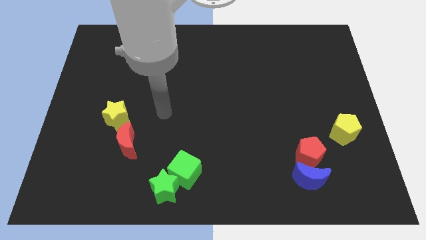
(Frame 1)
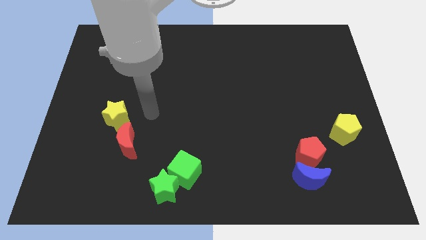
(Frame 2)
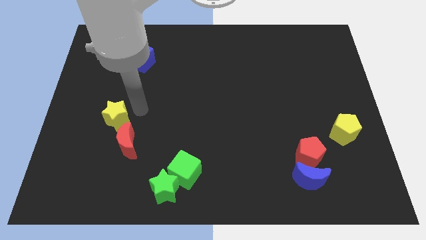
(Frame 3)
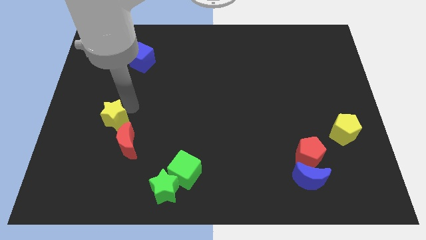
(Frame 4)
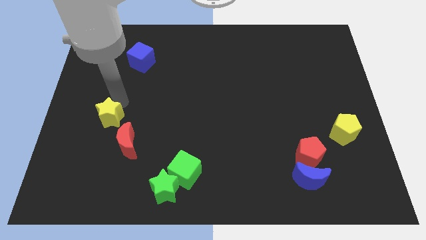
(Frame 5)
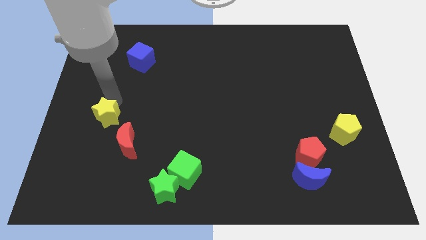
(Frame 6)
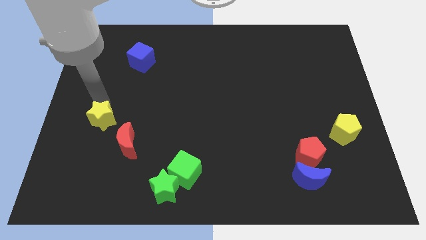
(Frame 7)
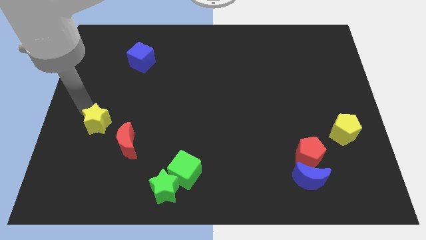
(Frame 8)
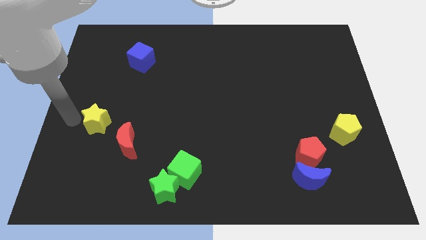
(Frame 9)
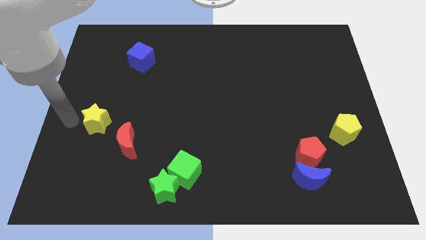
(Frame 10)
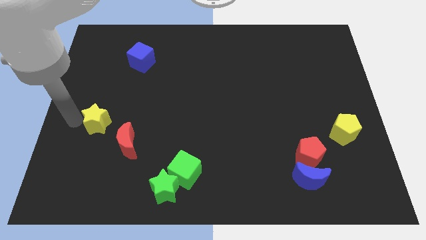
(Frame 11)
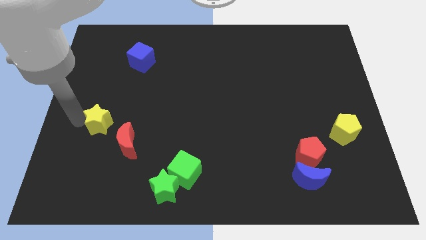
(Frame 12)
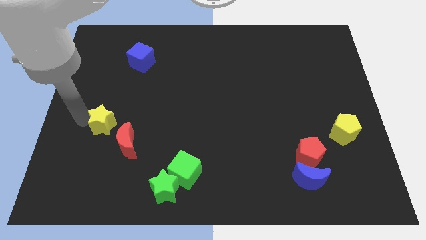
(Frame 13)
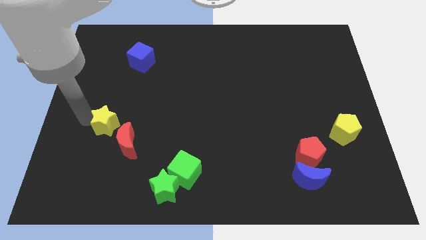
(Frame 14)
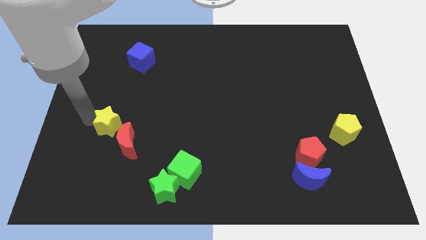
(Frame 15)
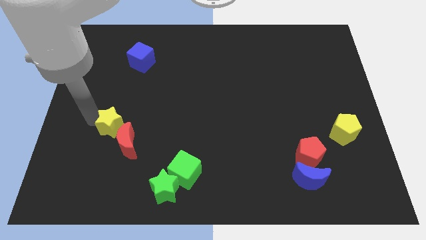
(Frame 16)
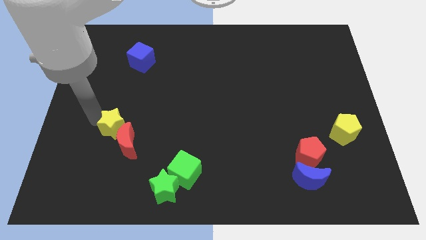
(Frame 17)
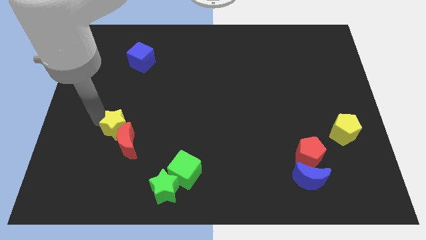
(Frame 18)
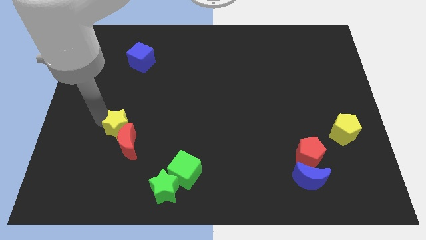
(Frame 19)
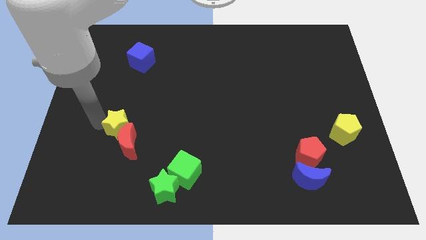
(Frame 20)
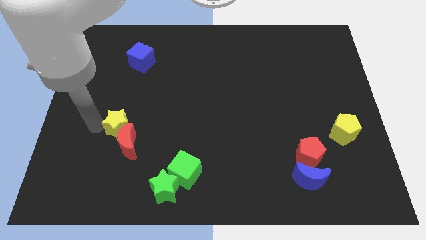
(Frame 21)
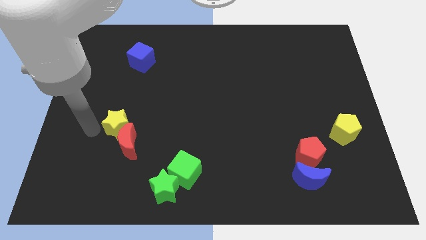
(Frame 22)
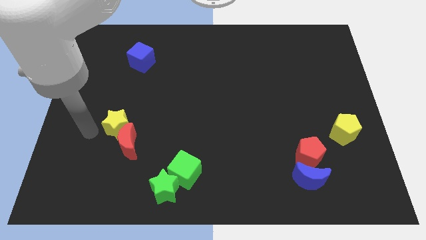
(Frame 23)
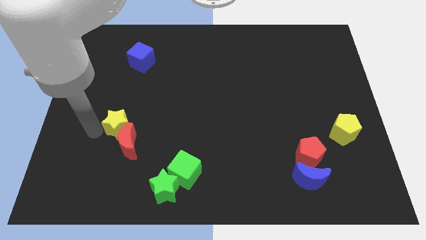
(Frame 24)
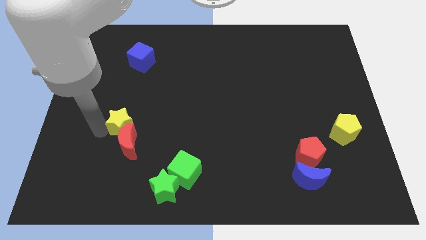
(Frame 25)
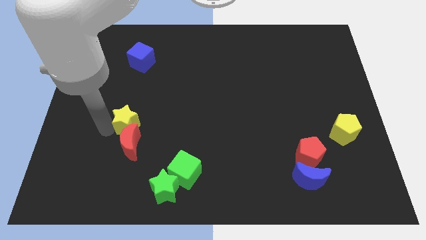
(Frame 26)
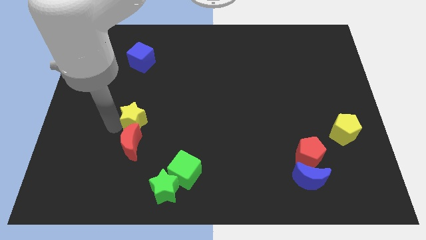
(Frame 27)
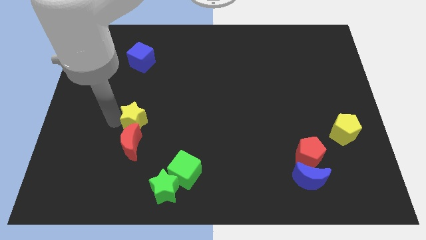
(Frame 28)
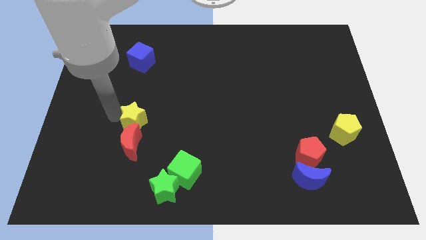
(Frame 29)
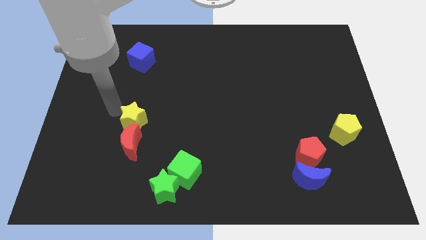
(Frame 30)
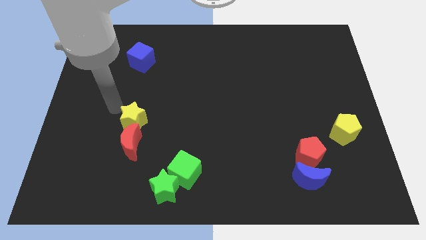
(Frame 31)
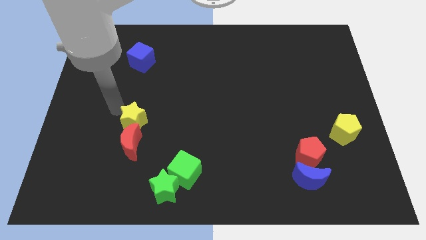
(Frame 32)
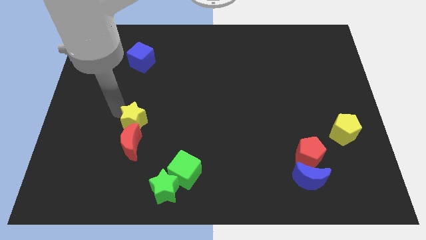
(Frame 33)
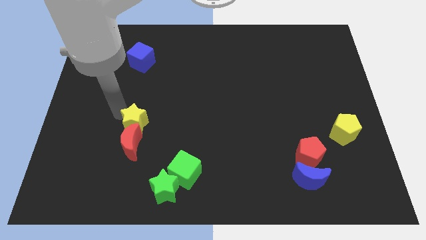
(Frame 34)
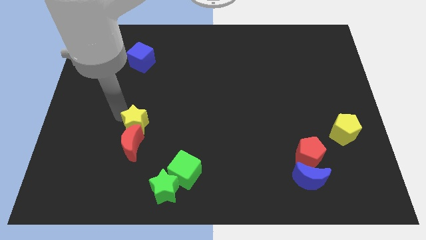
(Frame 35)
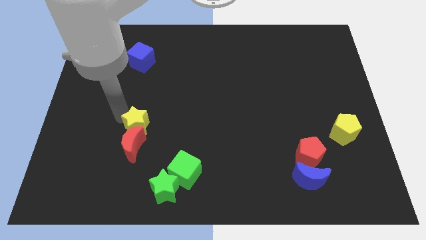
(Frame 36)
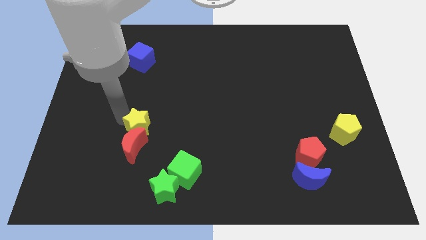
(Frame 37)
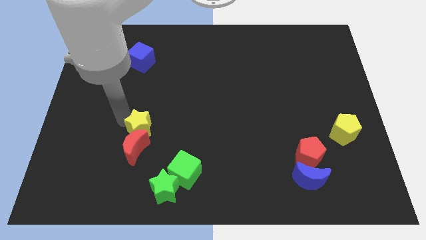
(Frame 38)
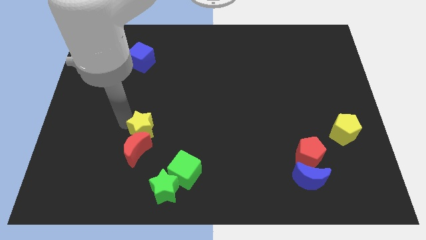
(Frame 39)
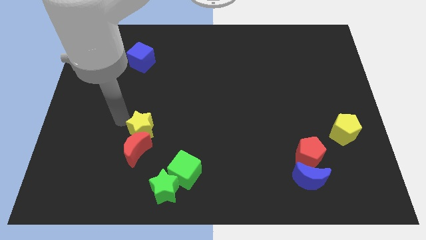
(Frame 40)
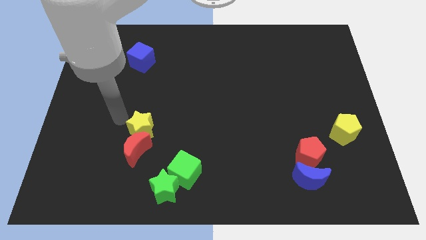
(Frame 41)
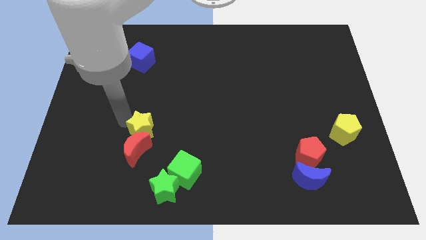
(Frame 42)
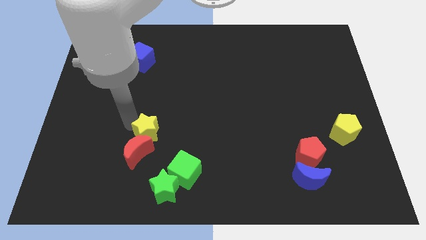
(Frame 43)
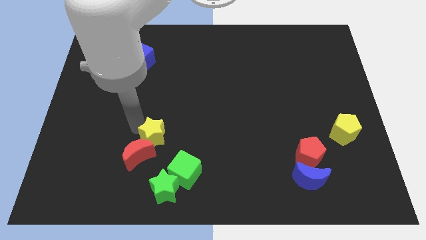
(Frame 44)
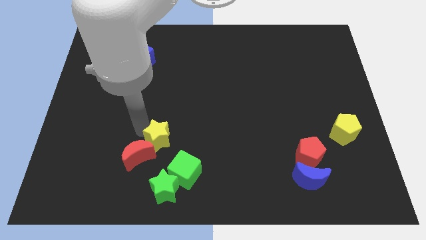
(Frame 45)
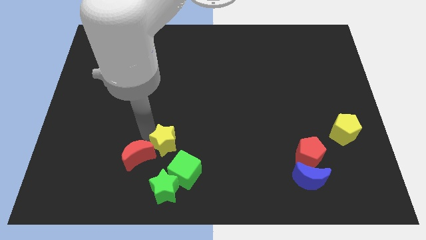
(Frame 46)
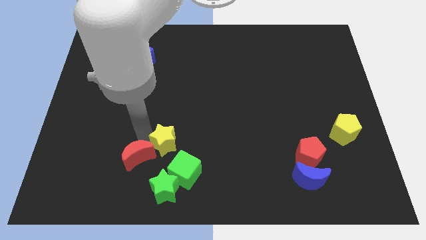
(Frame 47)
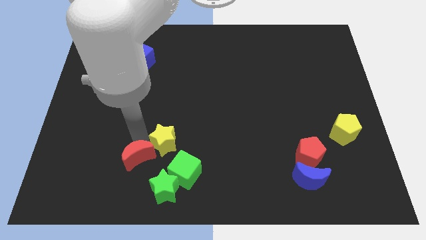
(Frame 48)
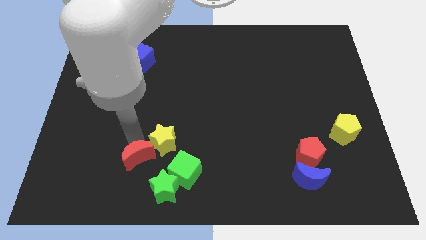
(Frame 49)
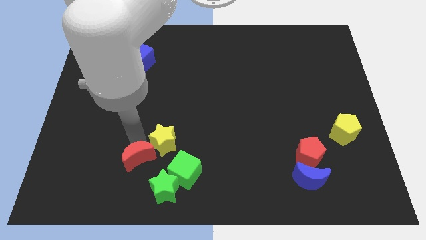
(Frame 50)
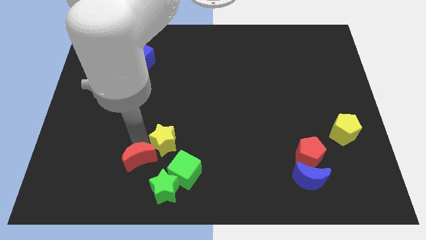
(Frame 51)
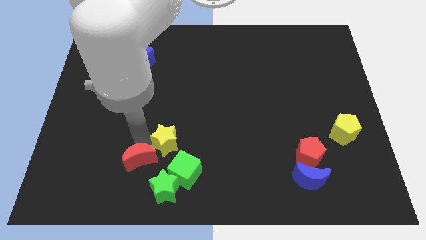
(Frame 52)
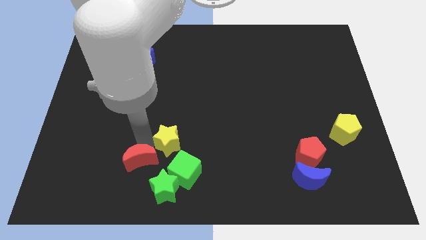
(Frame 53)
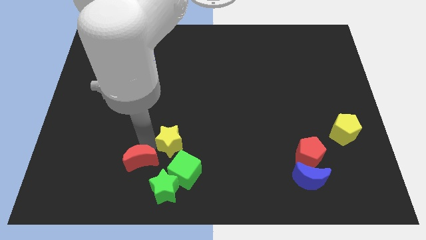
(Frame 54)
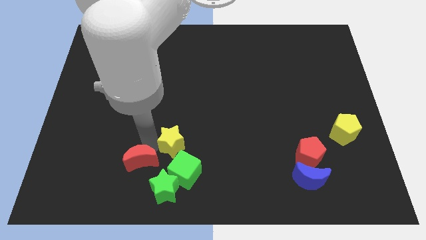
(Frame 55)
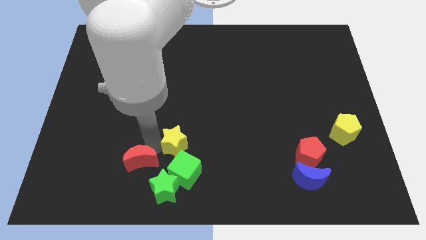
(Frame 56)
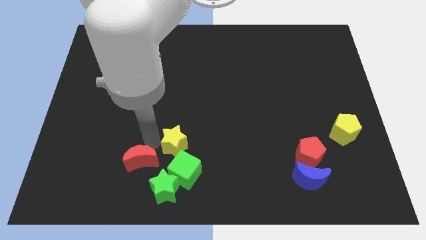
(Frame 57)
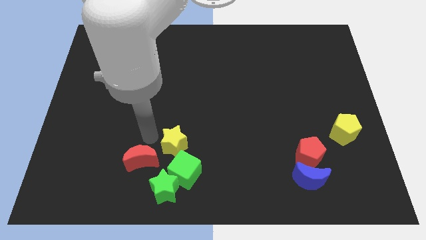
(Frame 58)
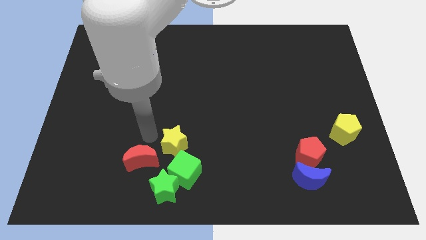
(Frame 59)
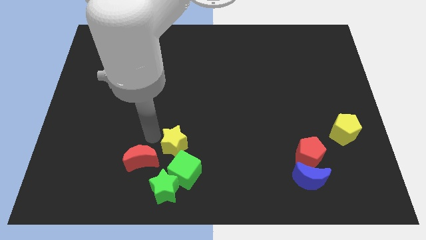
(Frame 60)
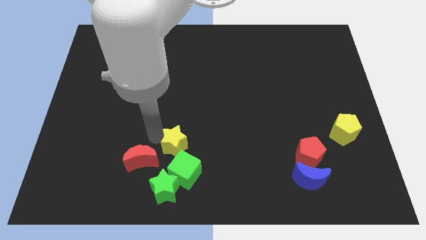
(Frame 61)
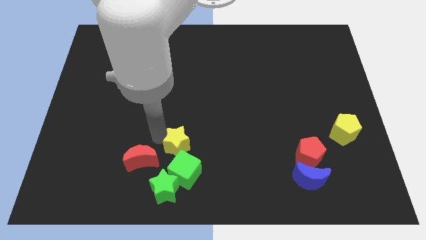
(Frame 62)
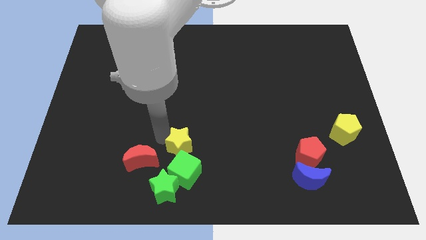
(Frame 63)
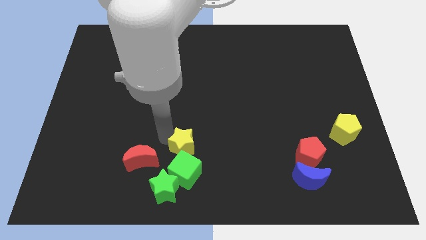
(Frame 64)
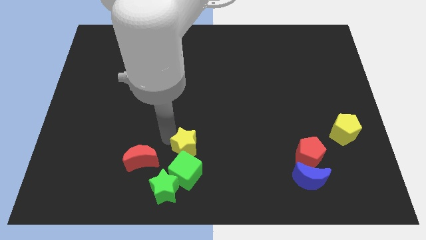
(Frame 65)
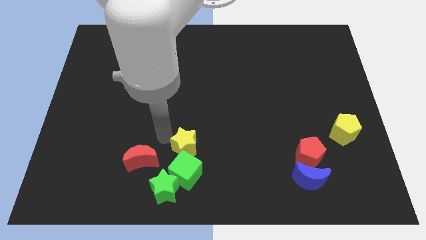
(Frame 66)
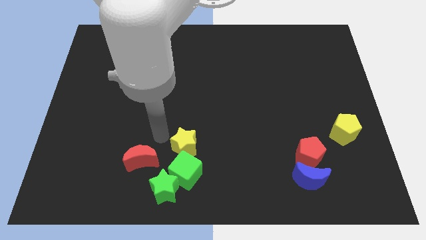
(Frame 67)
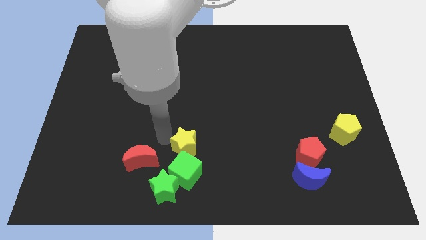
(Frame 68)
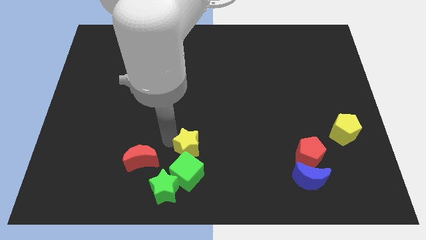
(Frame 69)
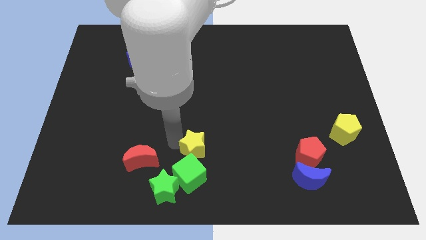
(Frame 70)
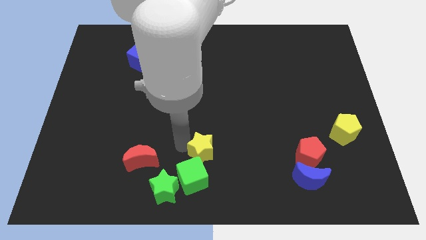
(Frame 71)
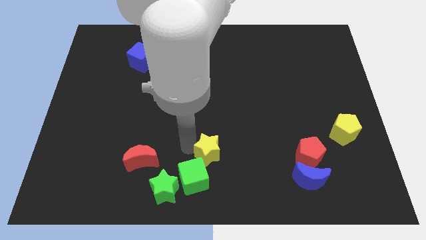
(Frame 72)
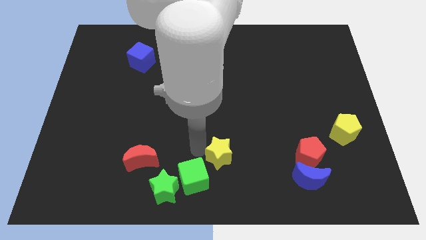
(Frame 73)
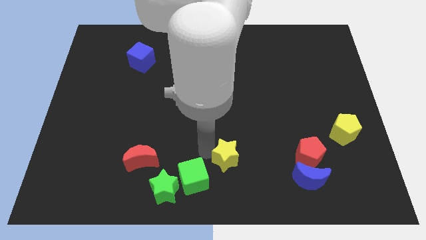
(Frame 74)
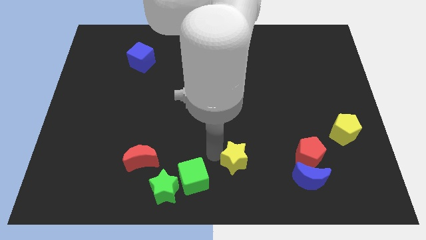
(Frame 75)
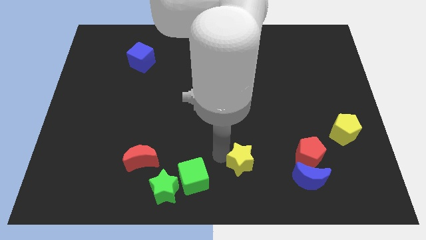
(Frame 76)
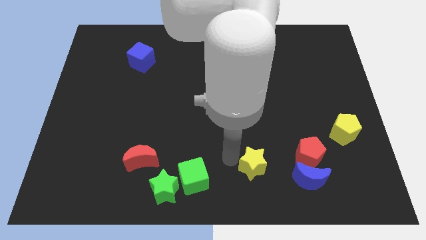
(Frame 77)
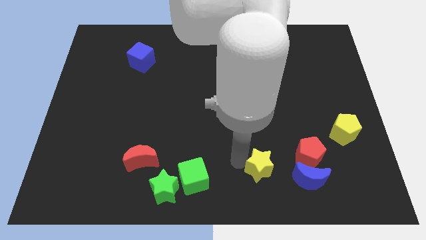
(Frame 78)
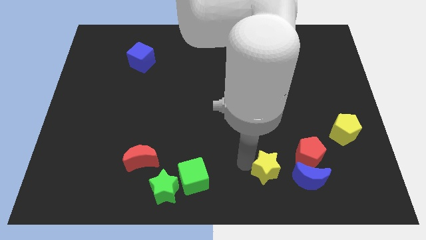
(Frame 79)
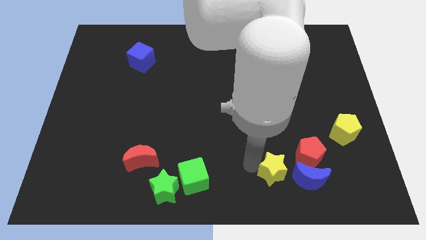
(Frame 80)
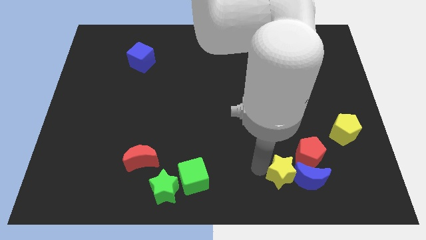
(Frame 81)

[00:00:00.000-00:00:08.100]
move the yellow star next to the blue moon
